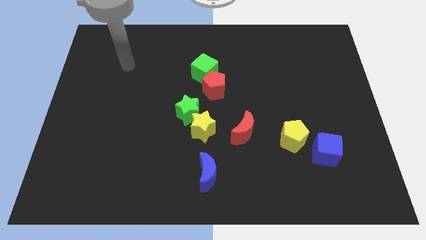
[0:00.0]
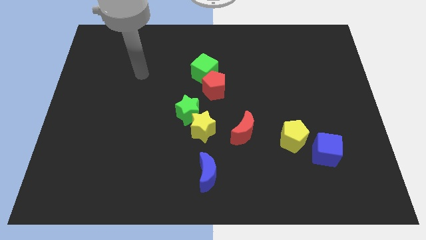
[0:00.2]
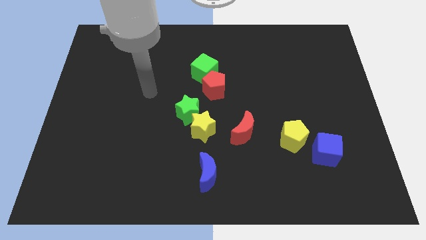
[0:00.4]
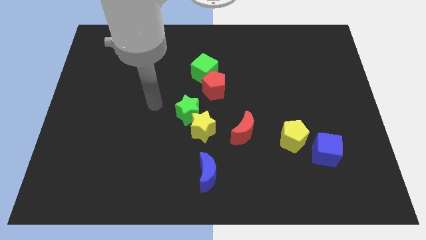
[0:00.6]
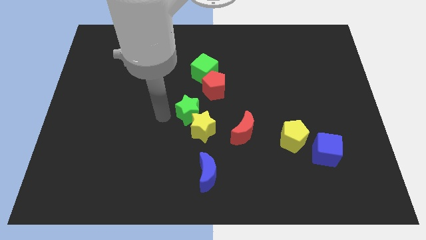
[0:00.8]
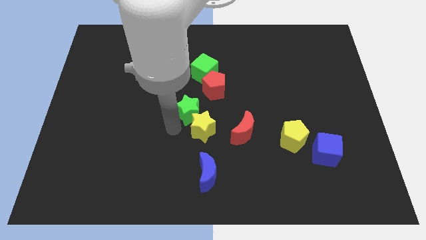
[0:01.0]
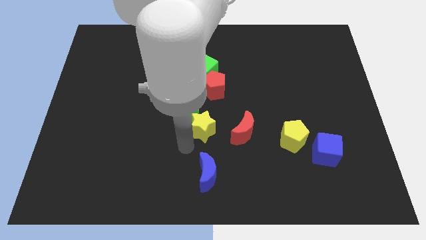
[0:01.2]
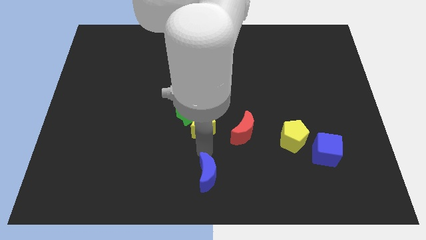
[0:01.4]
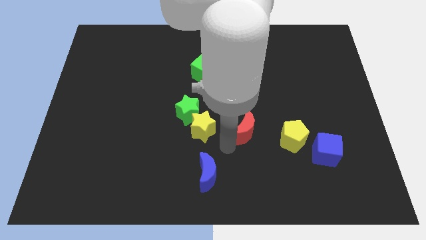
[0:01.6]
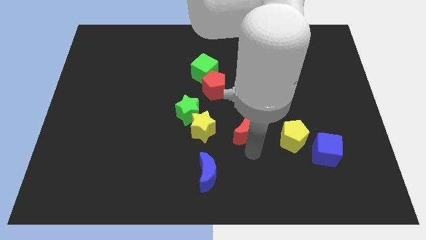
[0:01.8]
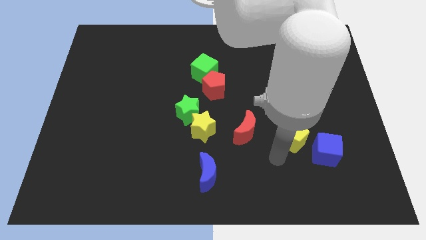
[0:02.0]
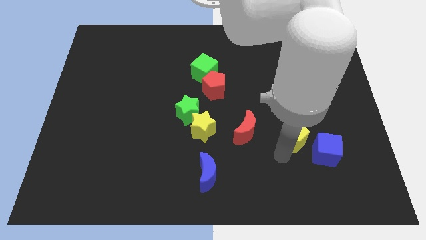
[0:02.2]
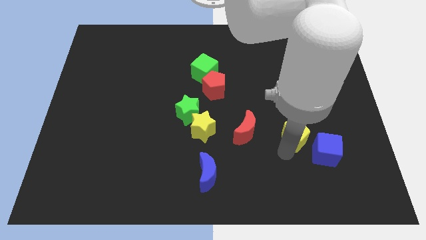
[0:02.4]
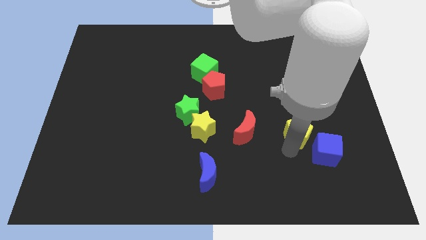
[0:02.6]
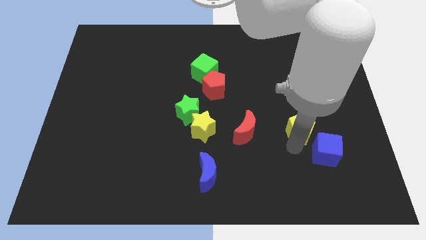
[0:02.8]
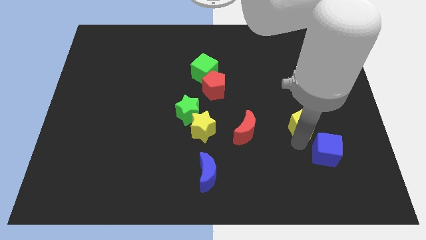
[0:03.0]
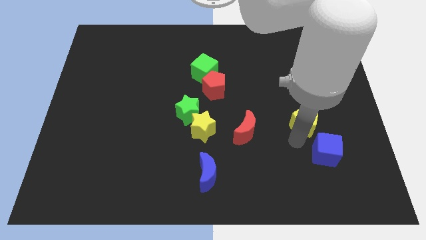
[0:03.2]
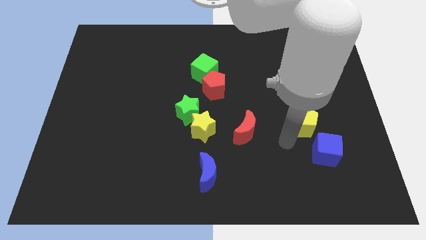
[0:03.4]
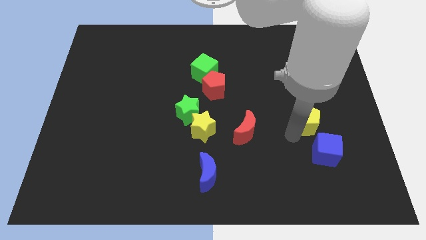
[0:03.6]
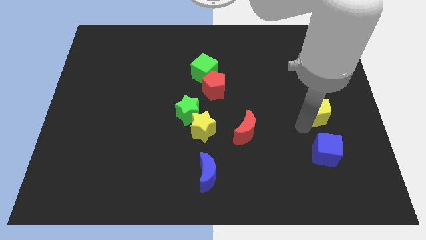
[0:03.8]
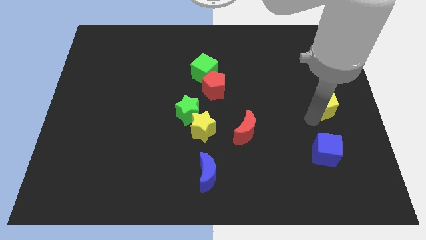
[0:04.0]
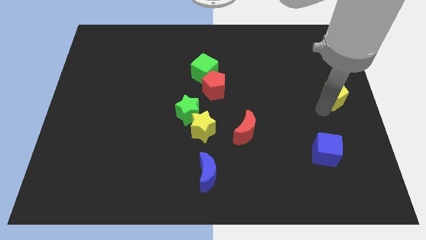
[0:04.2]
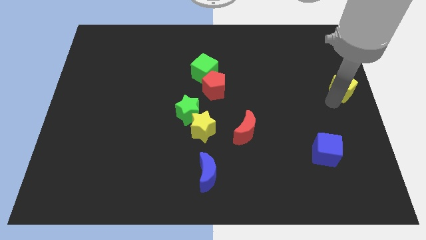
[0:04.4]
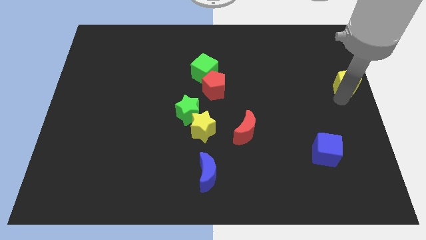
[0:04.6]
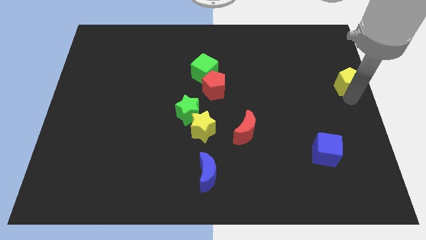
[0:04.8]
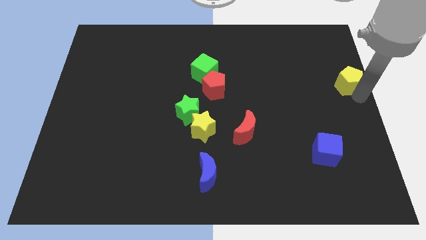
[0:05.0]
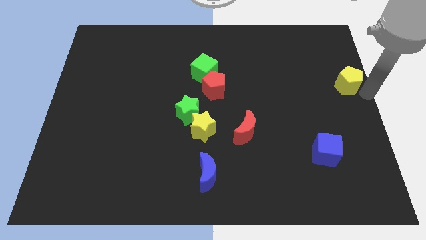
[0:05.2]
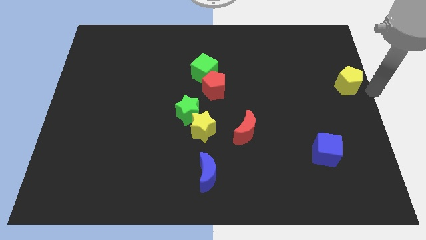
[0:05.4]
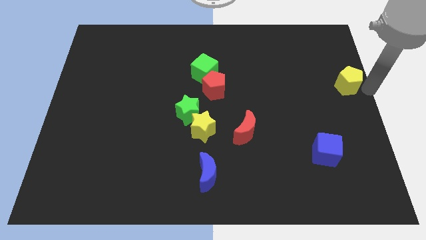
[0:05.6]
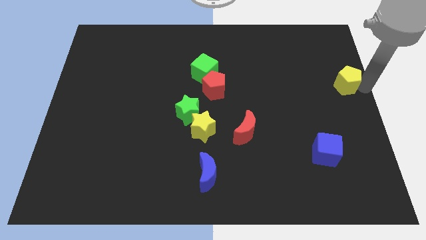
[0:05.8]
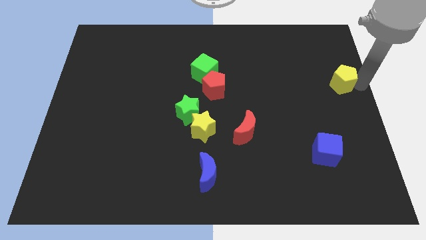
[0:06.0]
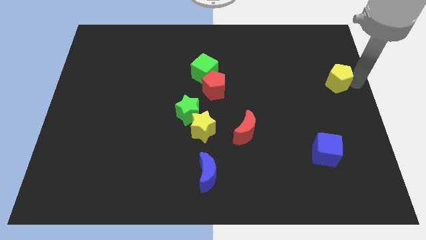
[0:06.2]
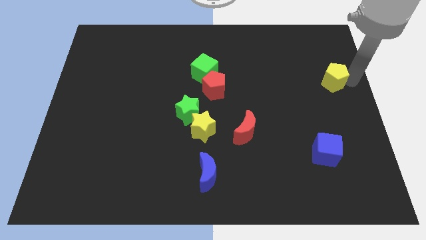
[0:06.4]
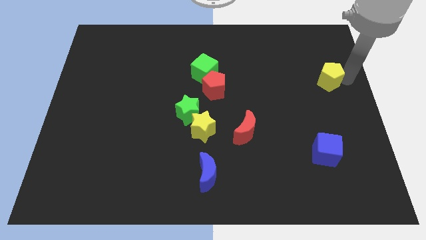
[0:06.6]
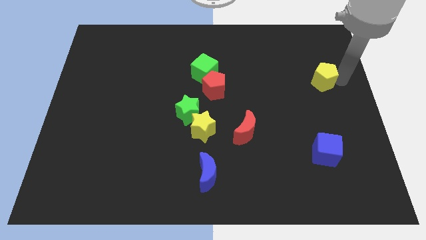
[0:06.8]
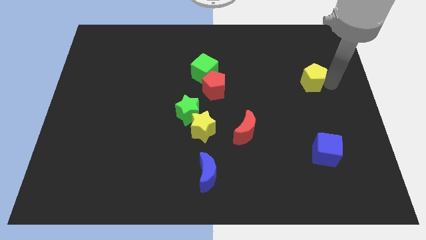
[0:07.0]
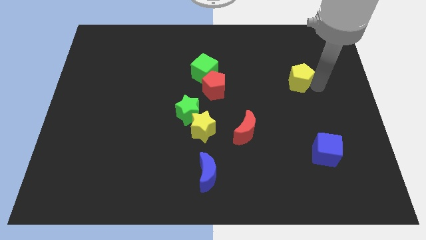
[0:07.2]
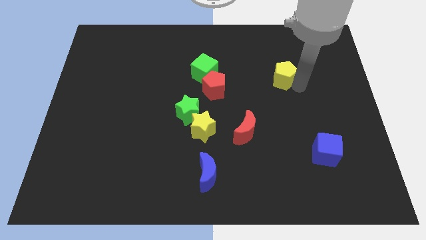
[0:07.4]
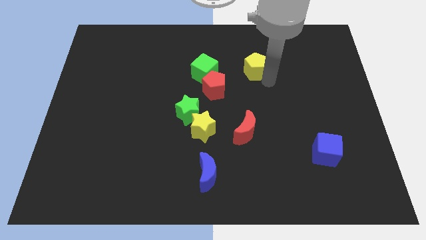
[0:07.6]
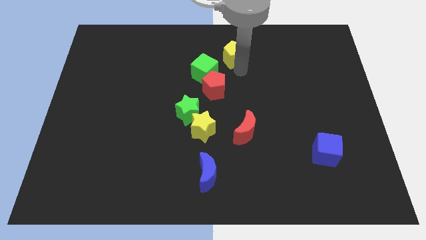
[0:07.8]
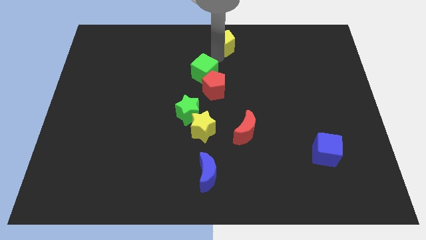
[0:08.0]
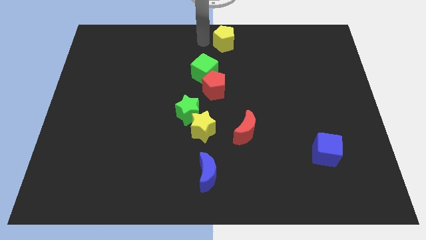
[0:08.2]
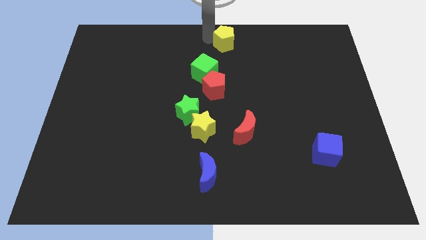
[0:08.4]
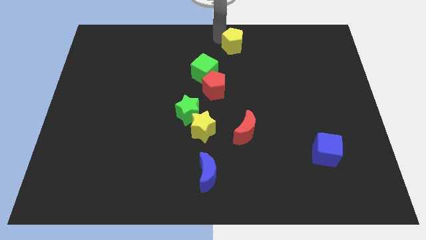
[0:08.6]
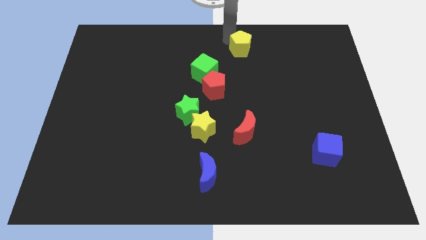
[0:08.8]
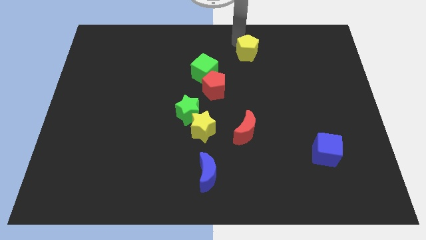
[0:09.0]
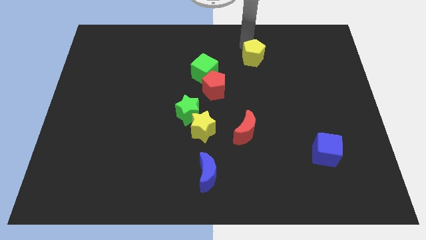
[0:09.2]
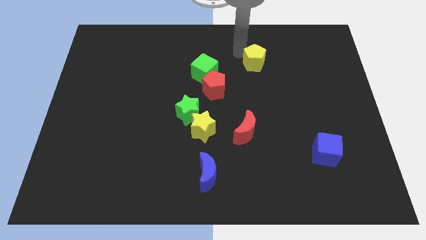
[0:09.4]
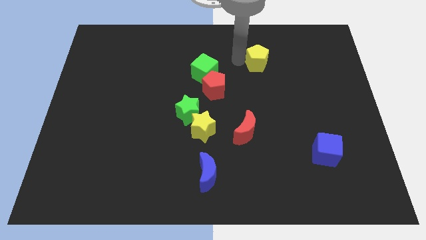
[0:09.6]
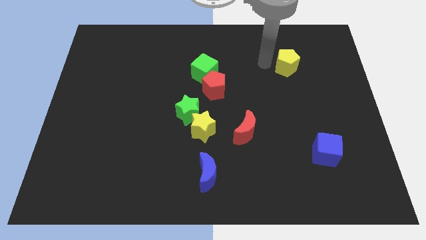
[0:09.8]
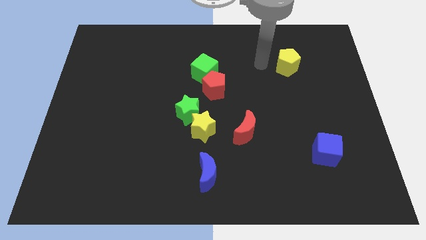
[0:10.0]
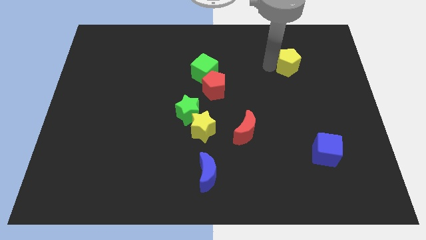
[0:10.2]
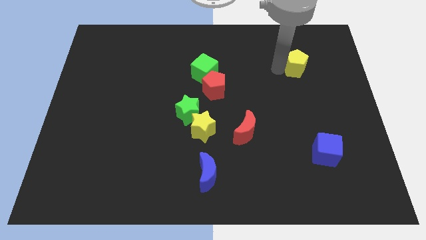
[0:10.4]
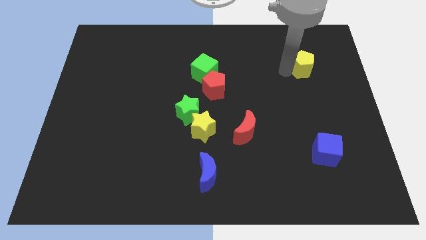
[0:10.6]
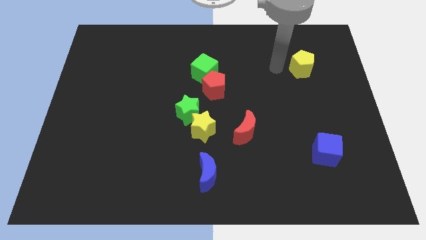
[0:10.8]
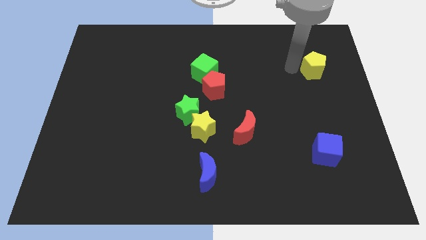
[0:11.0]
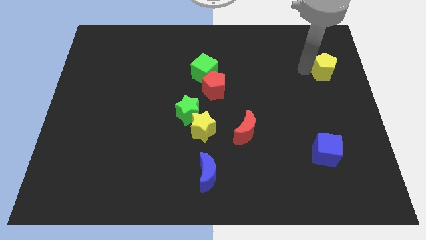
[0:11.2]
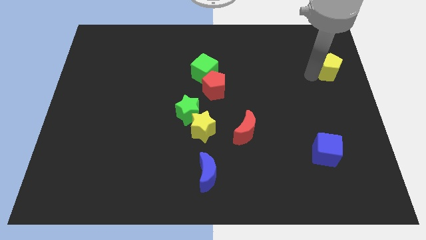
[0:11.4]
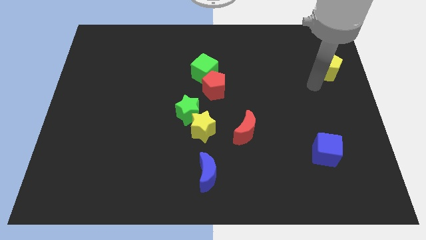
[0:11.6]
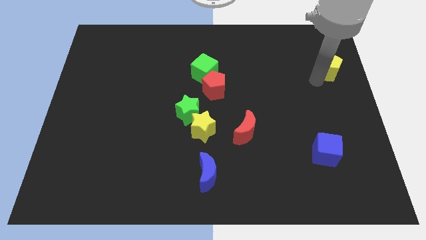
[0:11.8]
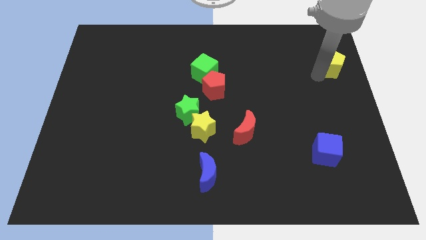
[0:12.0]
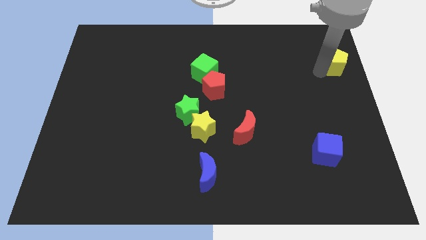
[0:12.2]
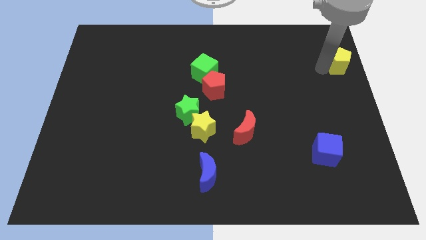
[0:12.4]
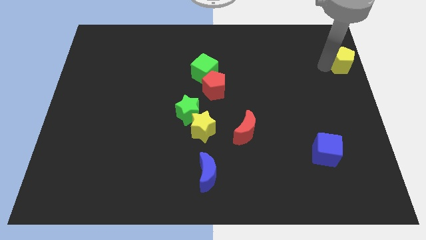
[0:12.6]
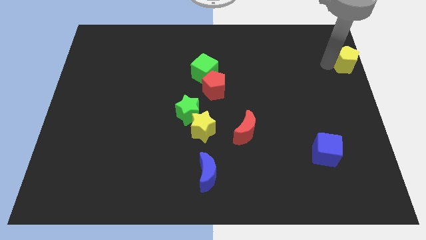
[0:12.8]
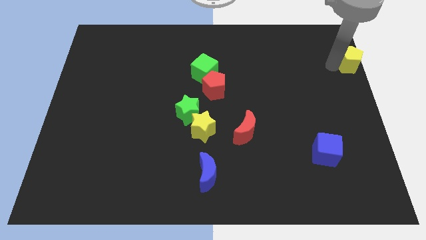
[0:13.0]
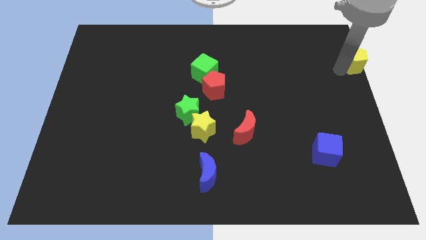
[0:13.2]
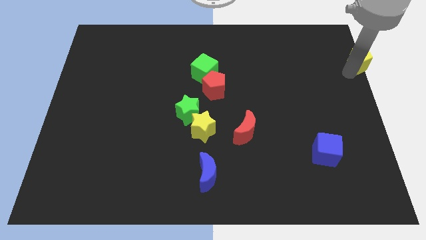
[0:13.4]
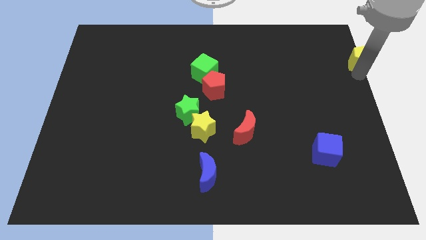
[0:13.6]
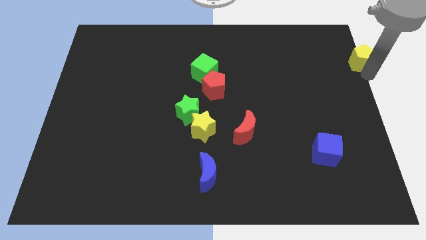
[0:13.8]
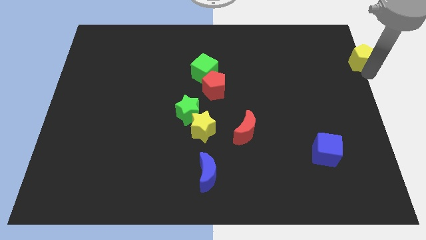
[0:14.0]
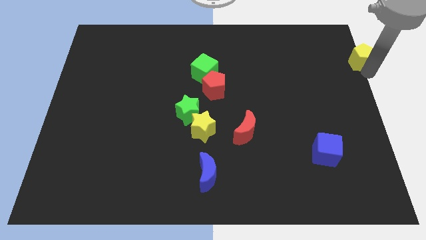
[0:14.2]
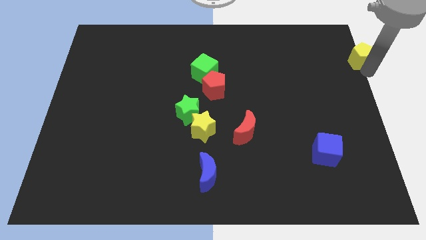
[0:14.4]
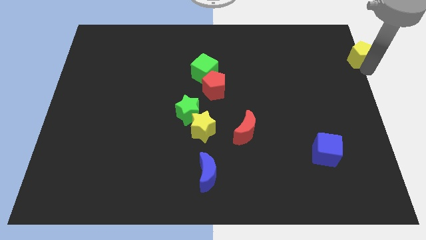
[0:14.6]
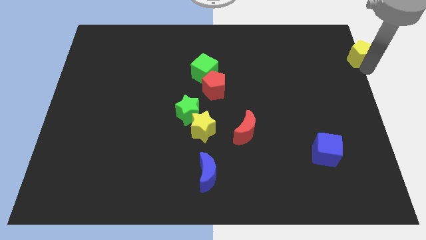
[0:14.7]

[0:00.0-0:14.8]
put the yellow pentagon to the top right corner
